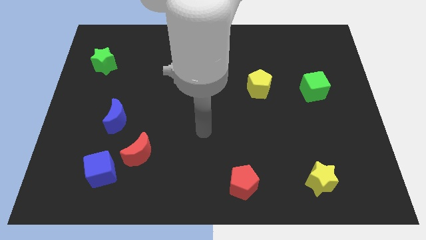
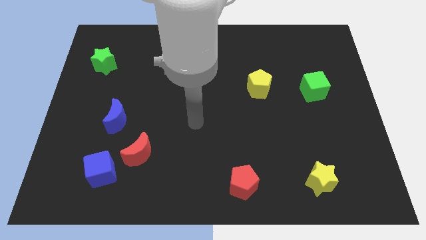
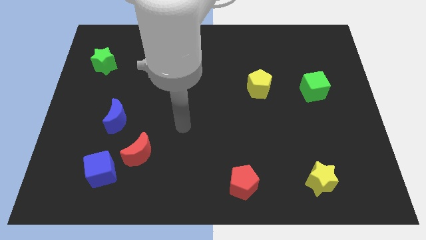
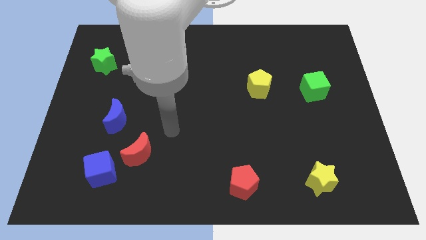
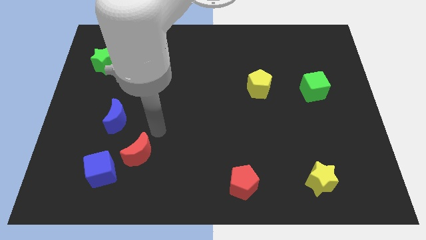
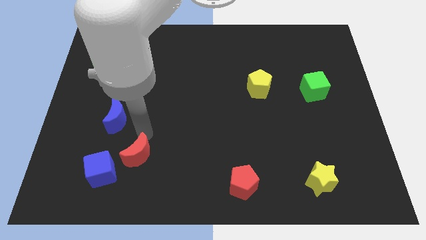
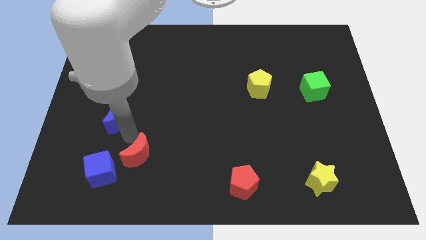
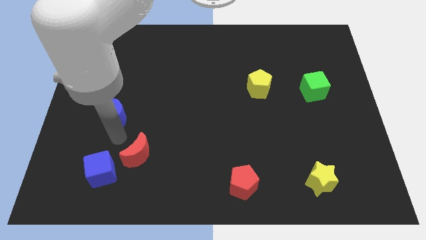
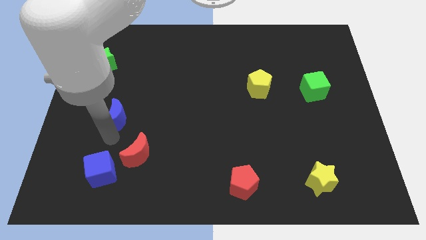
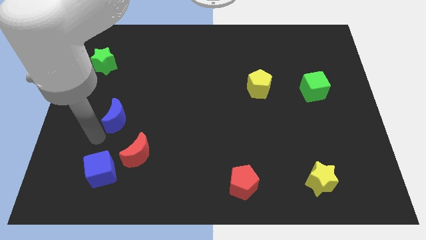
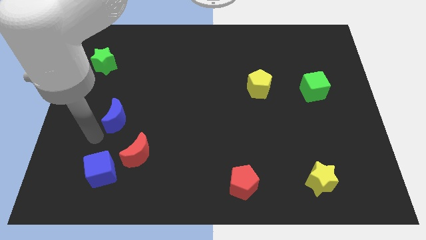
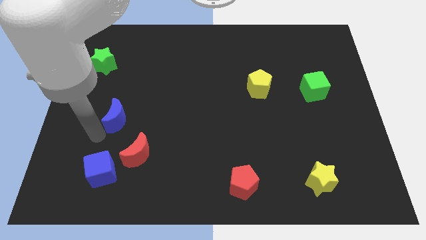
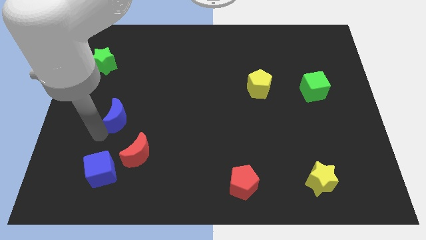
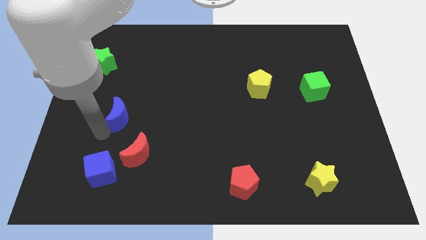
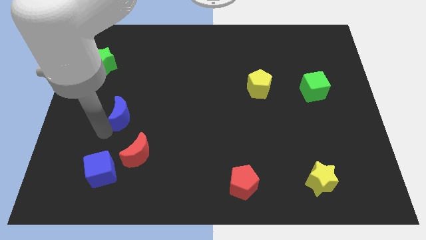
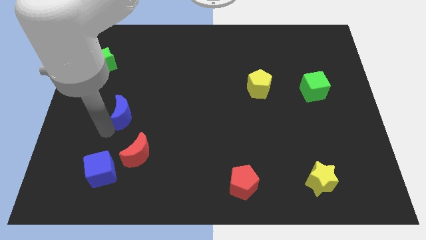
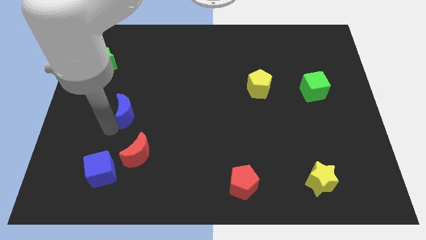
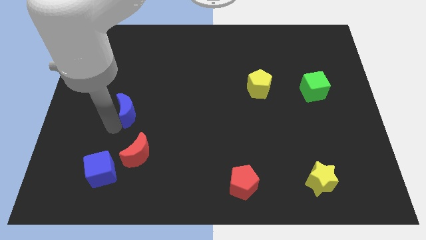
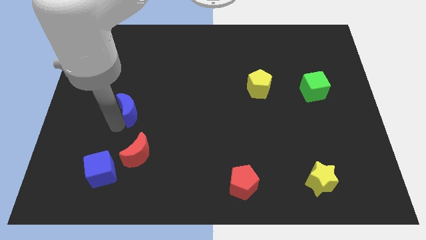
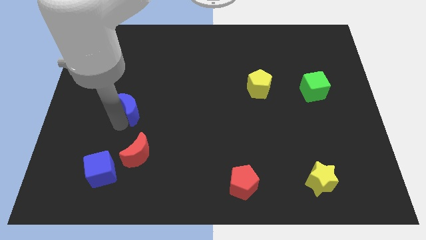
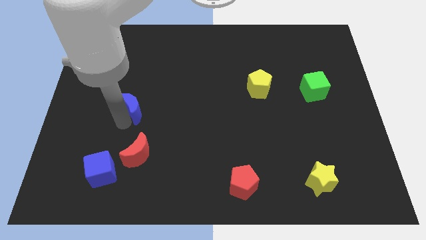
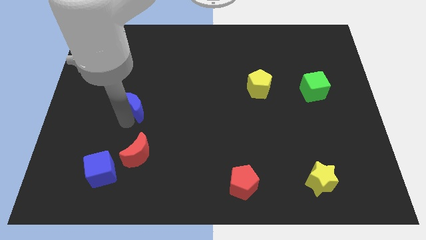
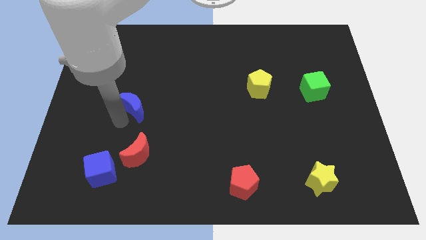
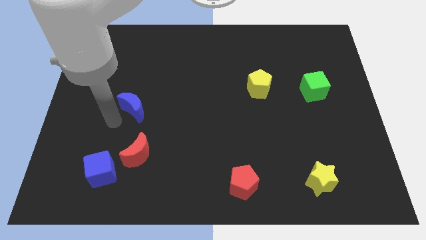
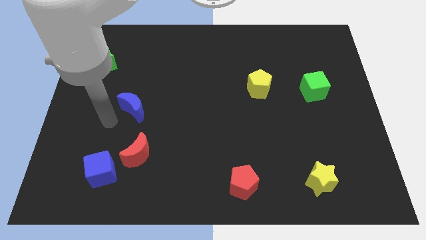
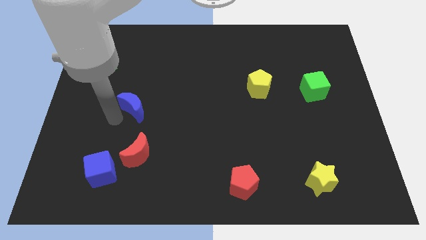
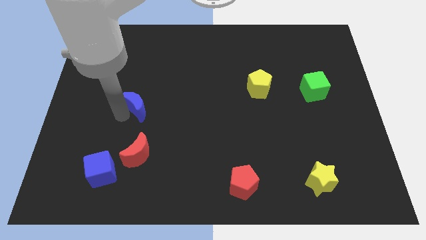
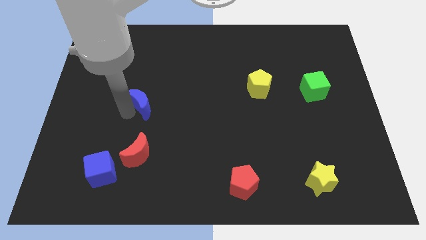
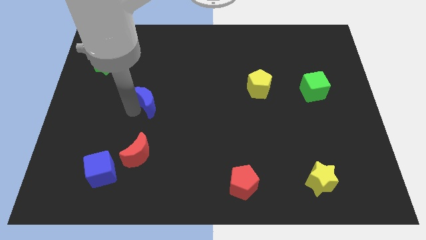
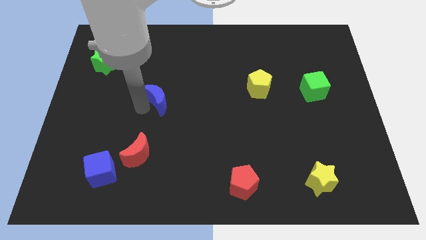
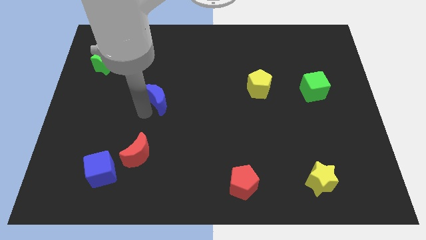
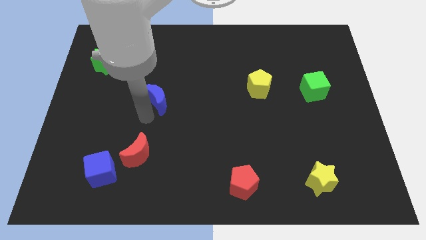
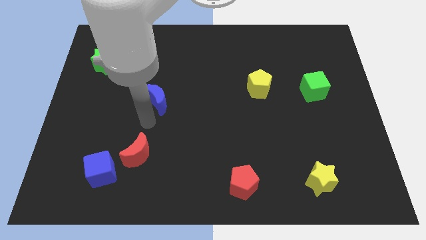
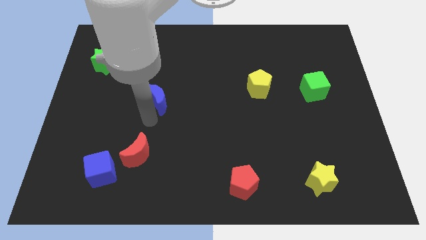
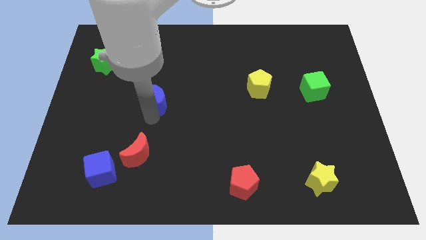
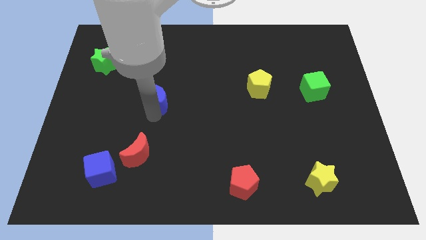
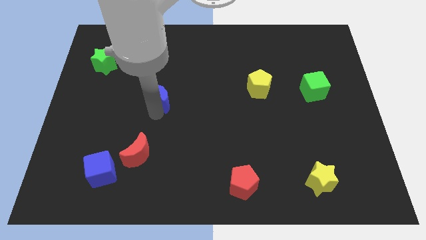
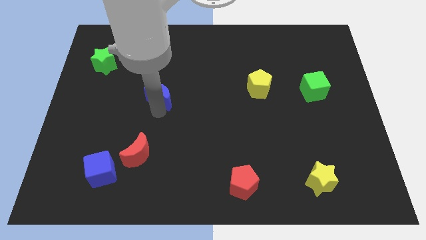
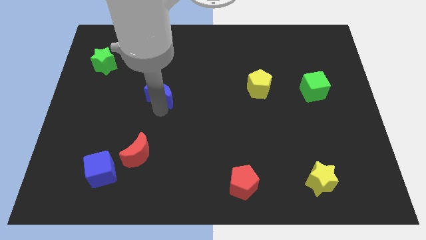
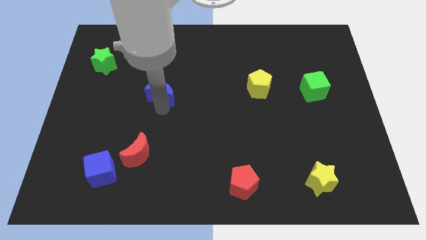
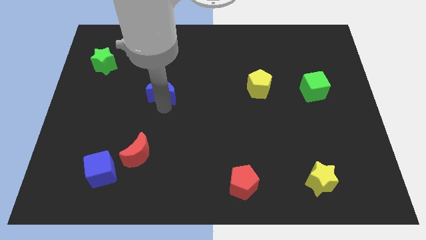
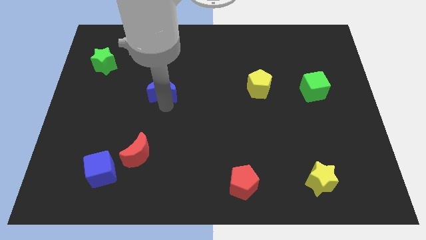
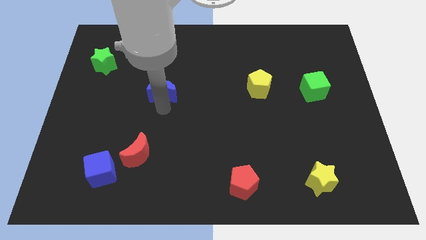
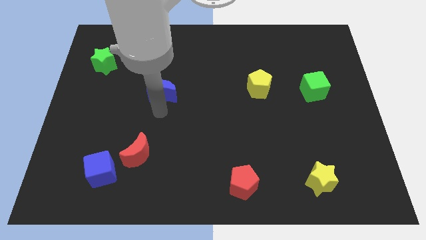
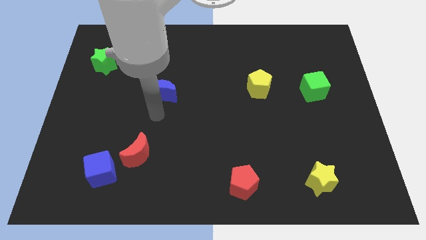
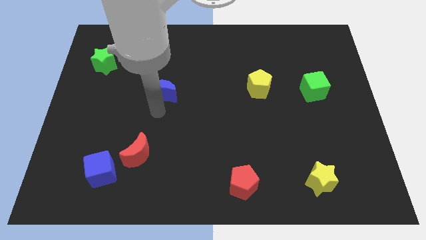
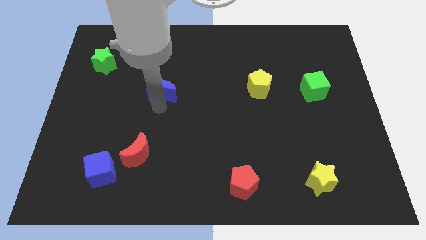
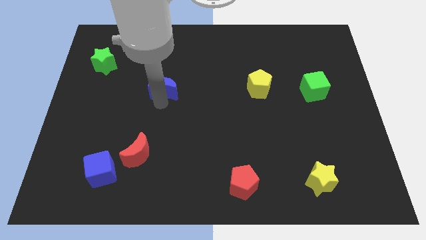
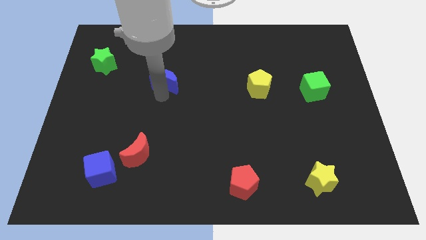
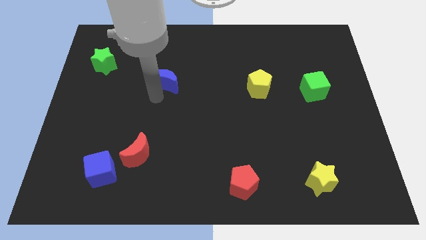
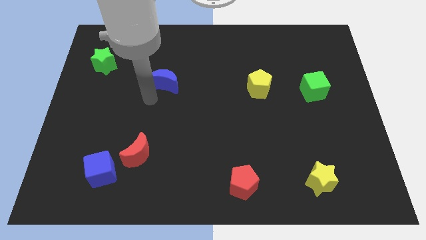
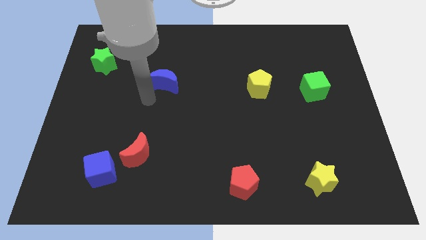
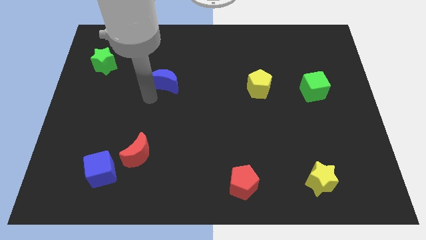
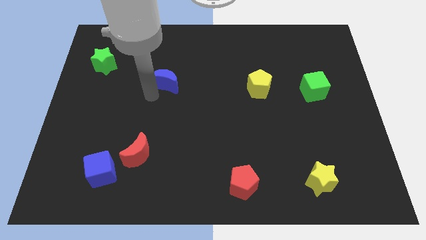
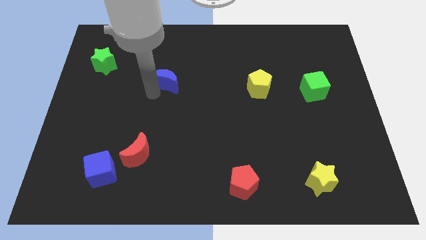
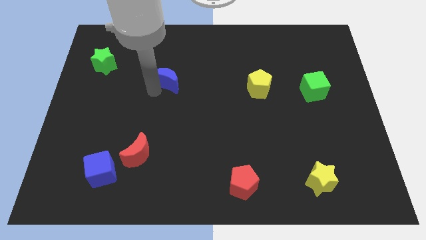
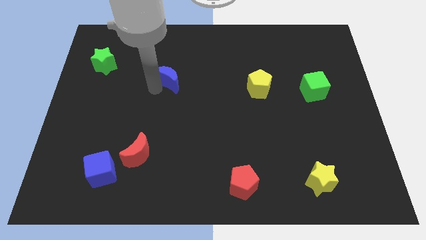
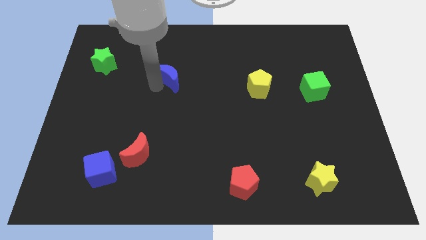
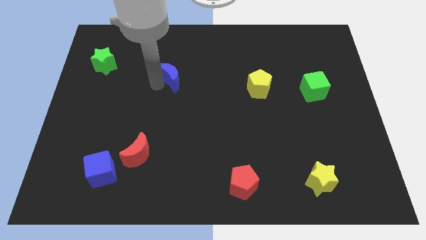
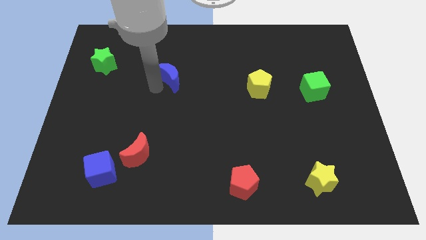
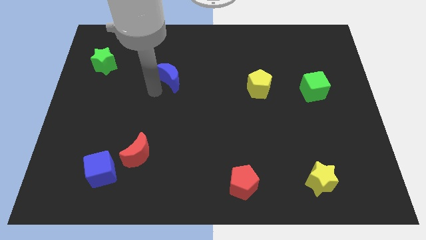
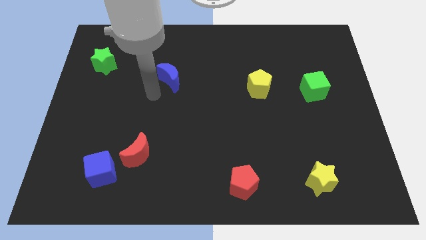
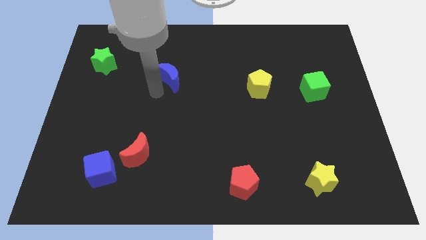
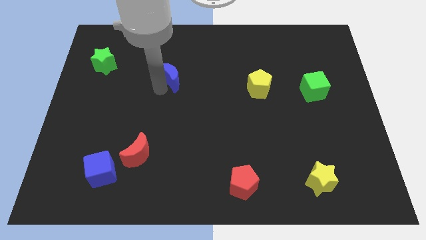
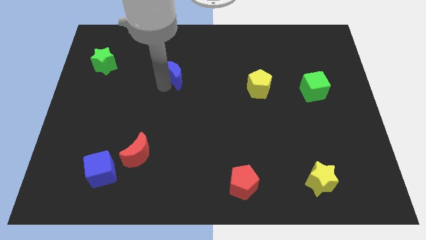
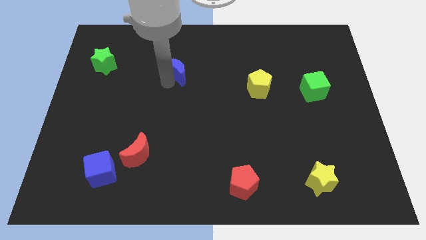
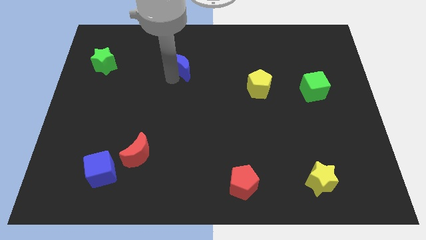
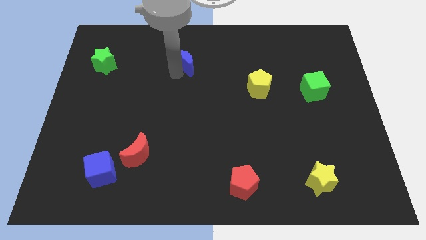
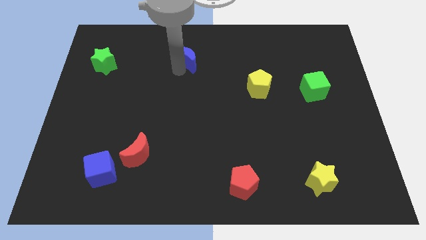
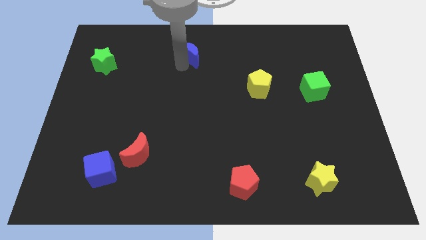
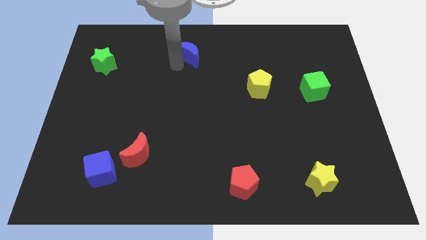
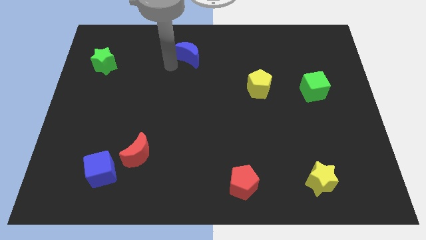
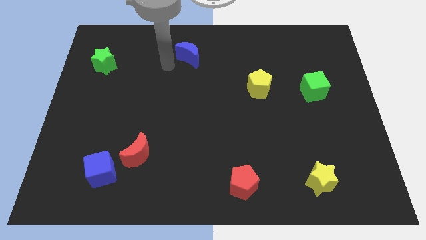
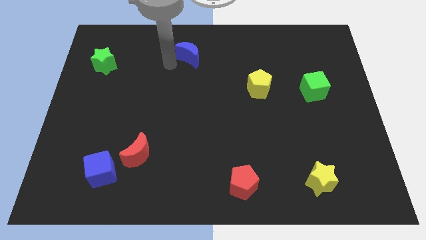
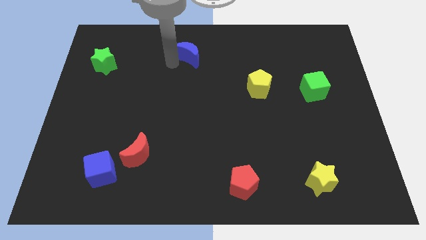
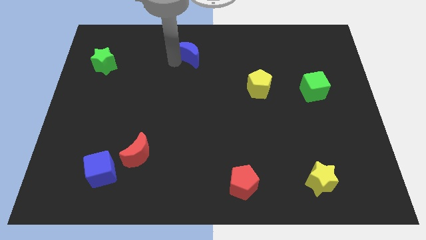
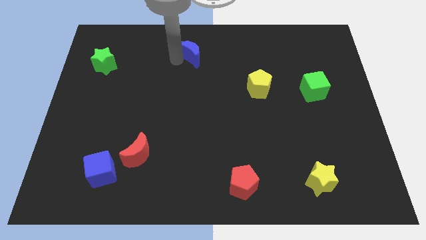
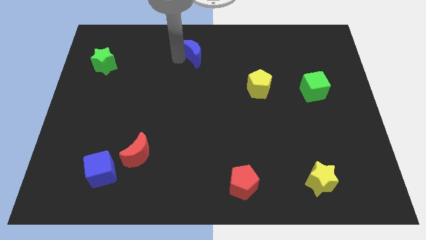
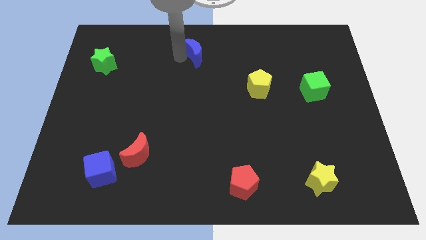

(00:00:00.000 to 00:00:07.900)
move the blue moon to the top side
